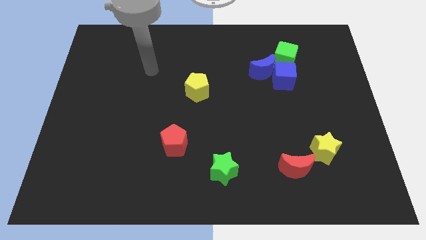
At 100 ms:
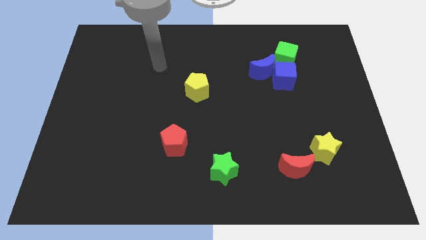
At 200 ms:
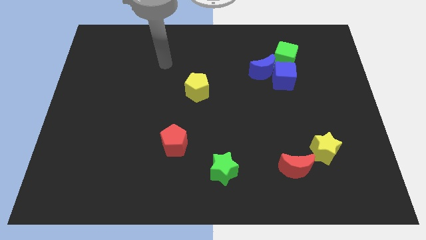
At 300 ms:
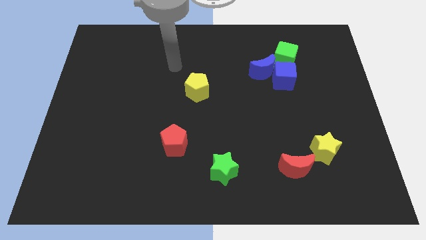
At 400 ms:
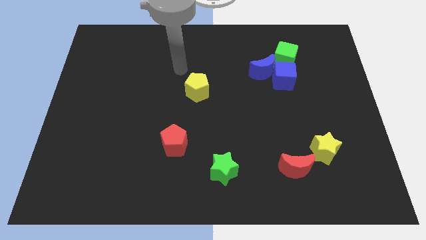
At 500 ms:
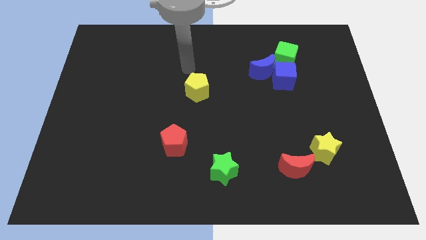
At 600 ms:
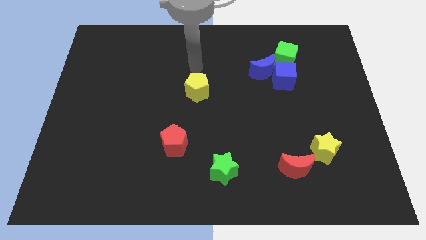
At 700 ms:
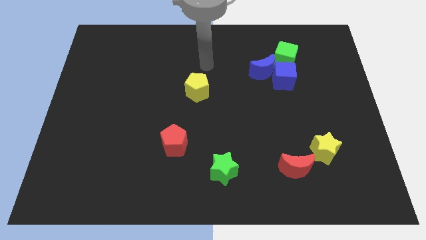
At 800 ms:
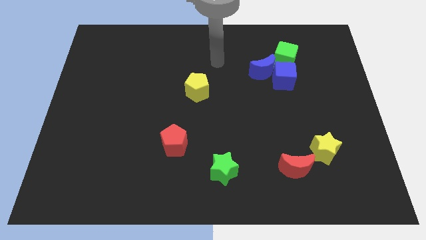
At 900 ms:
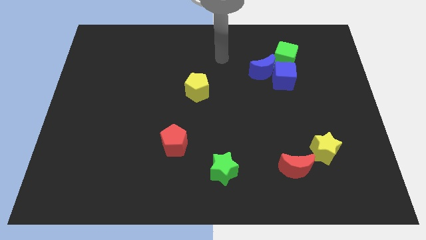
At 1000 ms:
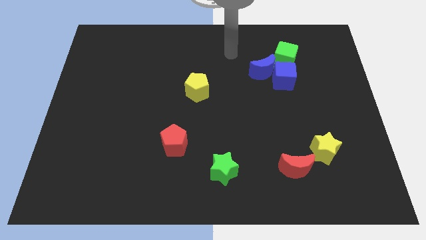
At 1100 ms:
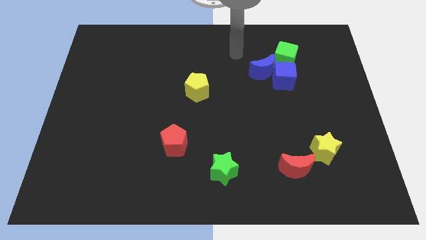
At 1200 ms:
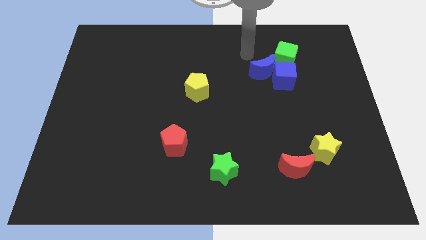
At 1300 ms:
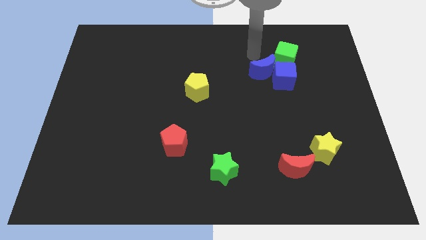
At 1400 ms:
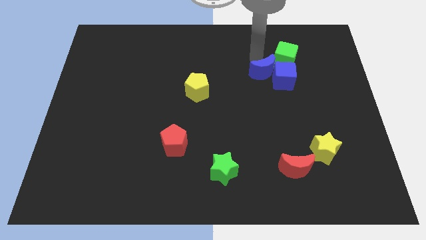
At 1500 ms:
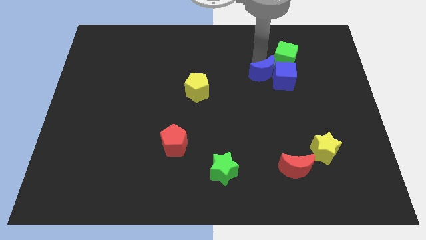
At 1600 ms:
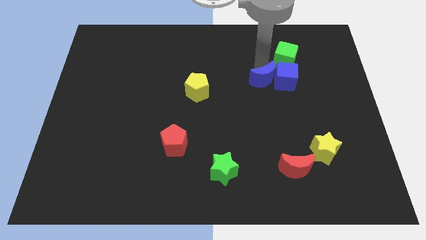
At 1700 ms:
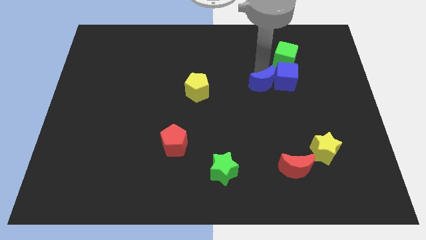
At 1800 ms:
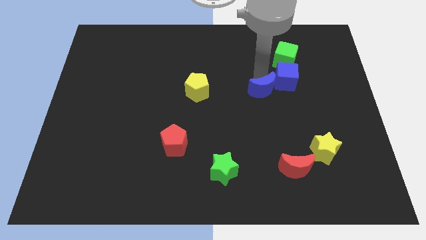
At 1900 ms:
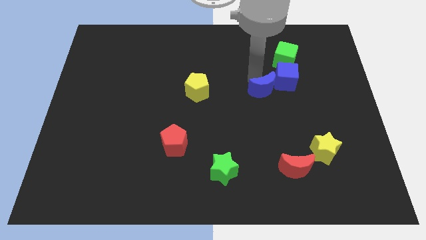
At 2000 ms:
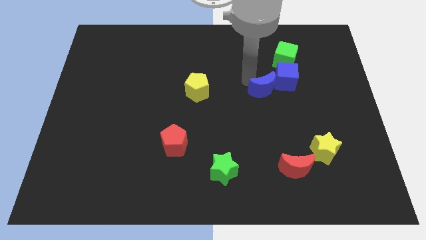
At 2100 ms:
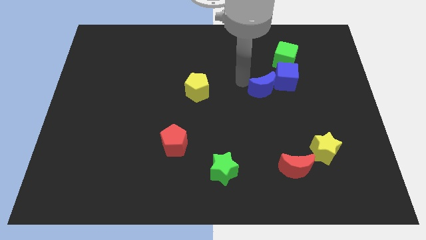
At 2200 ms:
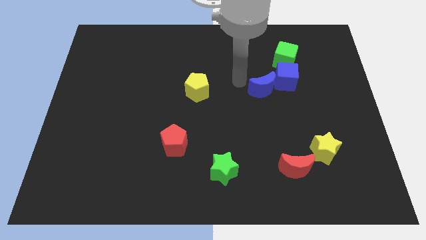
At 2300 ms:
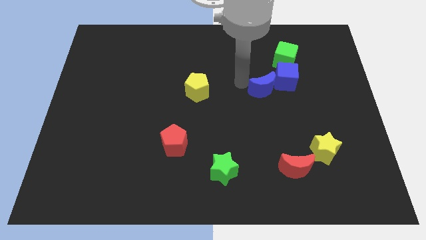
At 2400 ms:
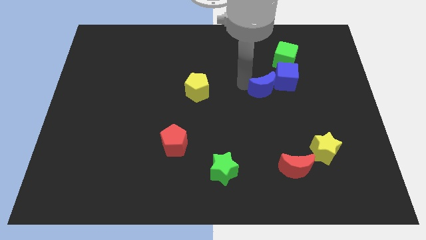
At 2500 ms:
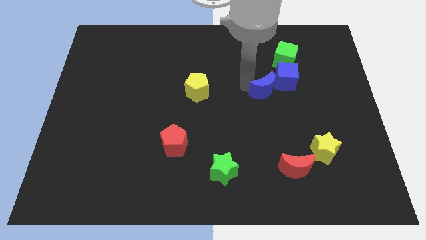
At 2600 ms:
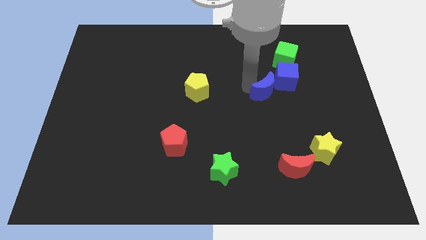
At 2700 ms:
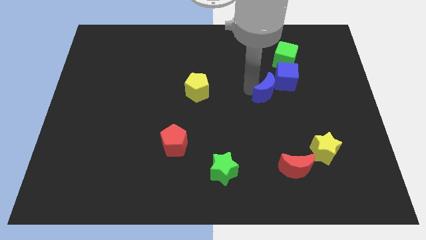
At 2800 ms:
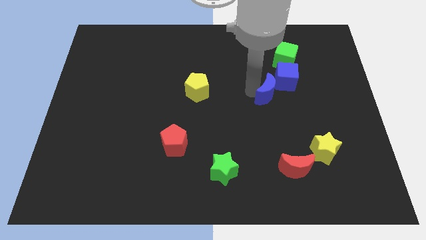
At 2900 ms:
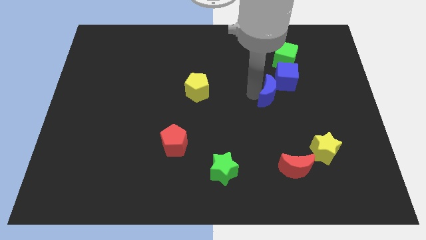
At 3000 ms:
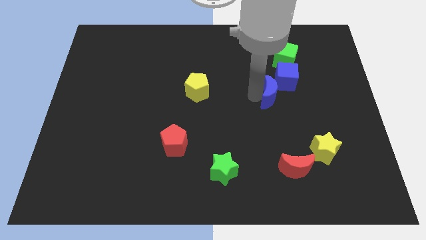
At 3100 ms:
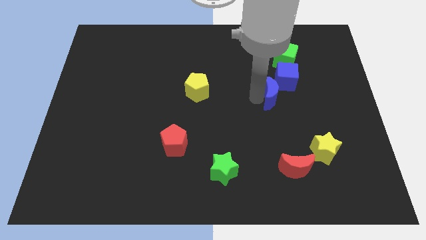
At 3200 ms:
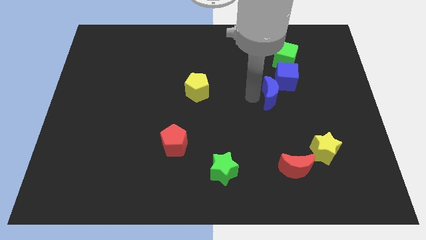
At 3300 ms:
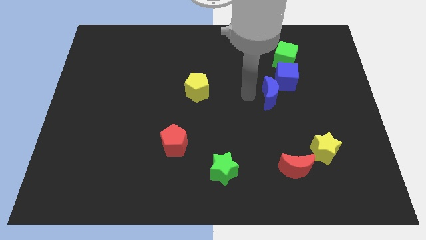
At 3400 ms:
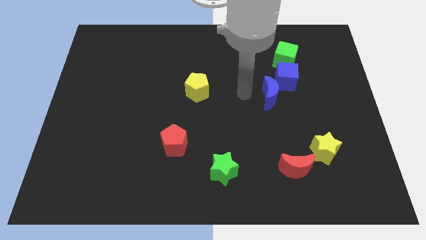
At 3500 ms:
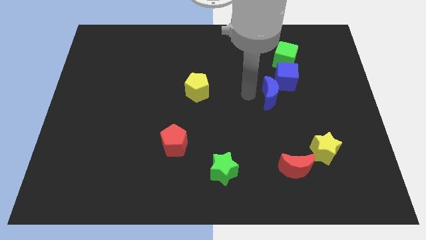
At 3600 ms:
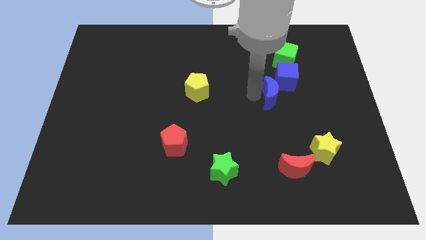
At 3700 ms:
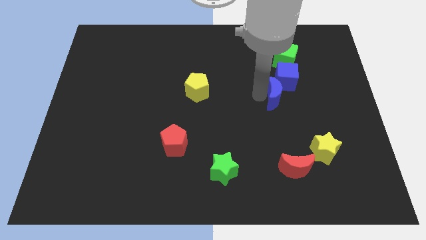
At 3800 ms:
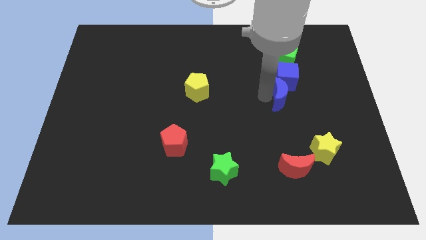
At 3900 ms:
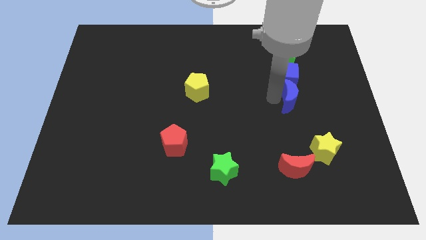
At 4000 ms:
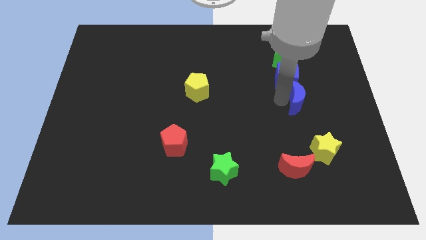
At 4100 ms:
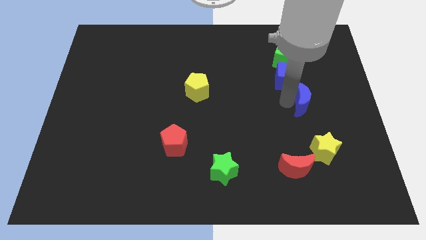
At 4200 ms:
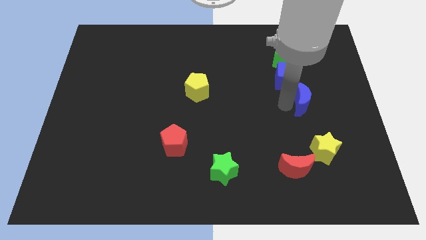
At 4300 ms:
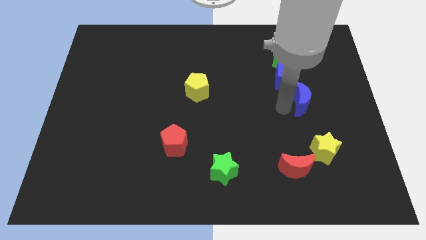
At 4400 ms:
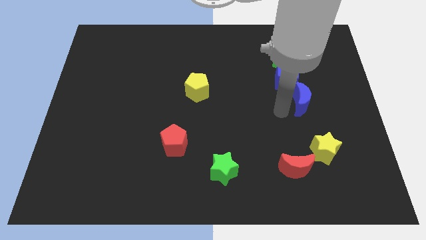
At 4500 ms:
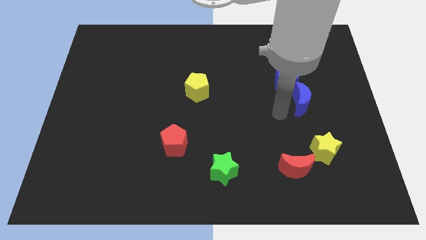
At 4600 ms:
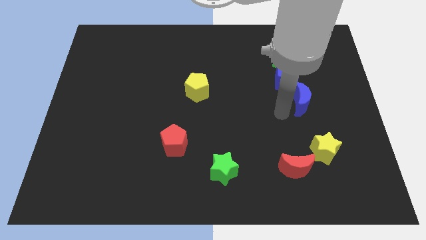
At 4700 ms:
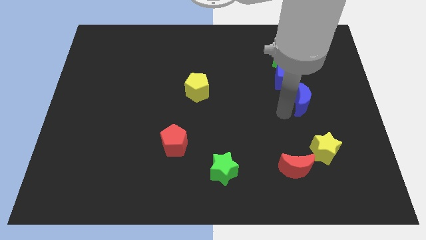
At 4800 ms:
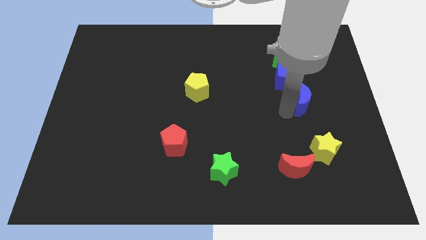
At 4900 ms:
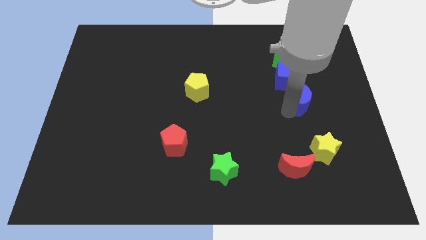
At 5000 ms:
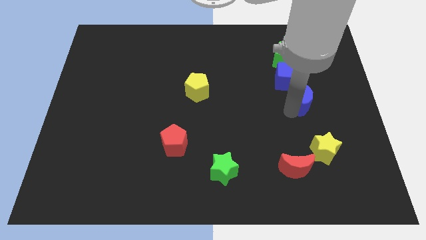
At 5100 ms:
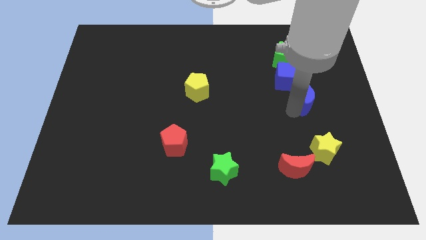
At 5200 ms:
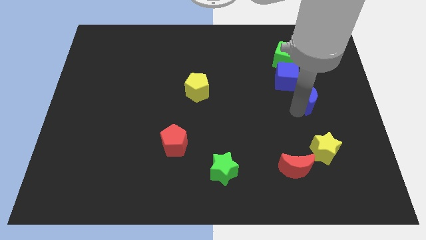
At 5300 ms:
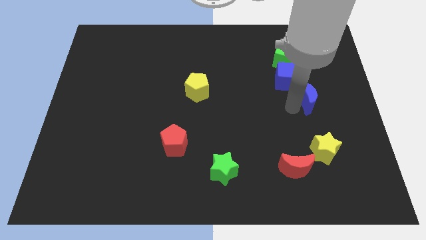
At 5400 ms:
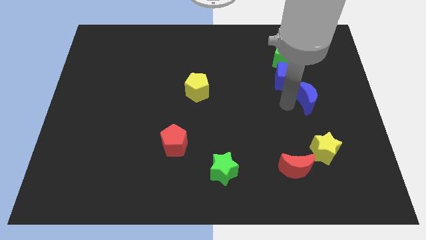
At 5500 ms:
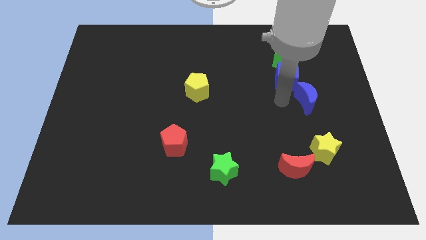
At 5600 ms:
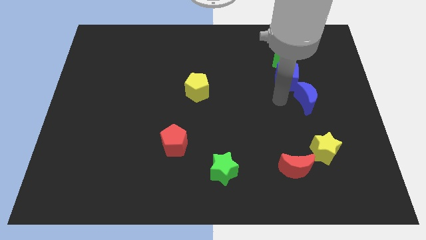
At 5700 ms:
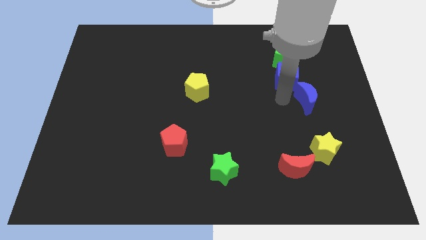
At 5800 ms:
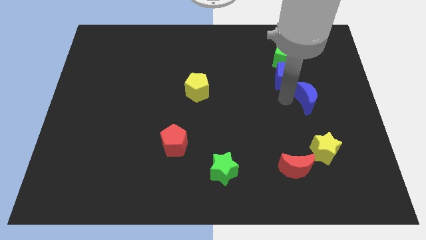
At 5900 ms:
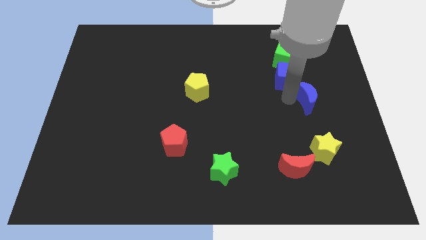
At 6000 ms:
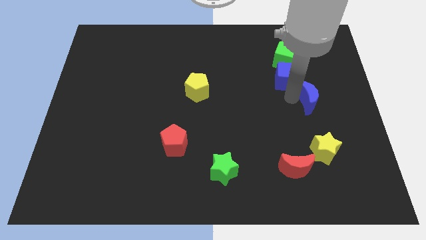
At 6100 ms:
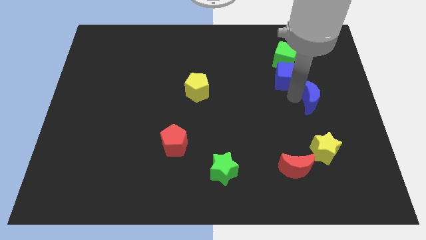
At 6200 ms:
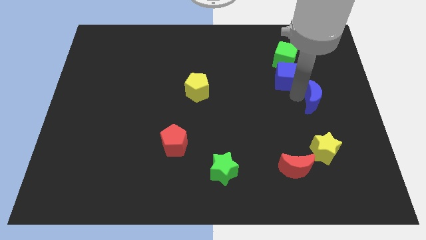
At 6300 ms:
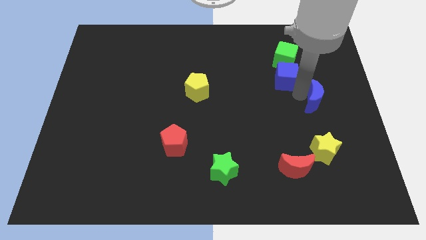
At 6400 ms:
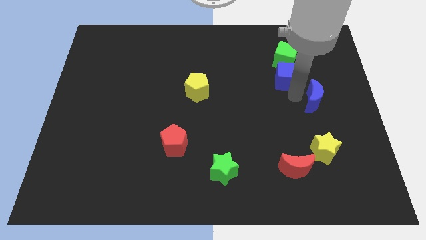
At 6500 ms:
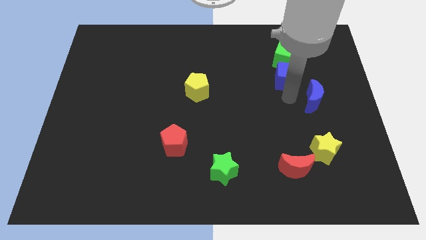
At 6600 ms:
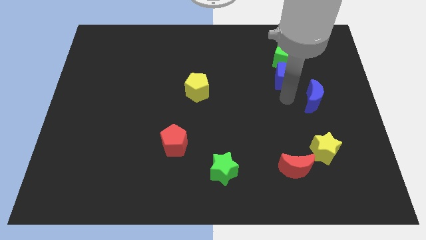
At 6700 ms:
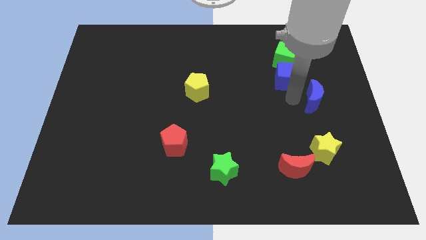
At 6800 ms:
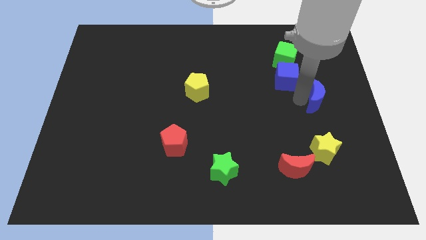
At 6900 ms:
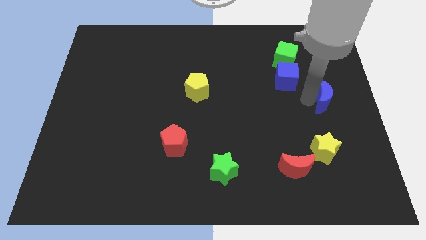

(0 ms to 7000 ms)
slide the blue moon to the right side of the board
